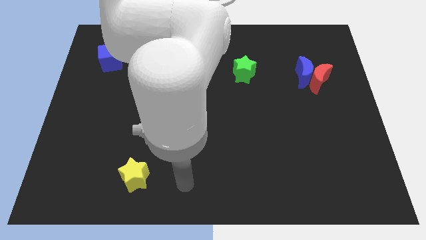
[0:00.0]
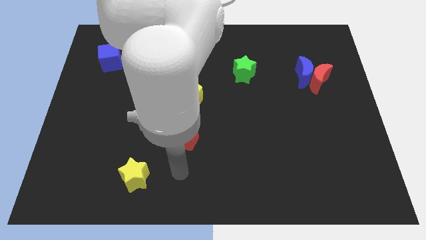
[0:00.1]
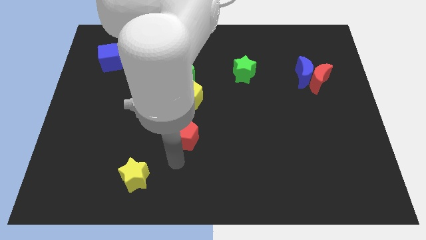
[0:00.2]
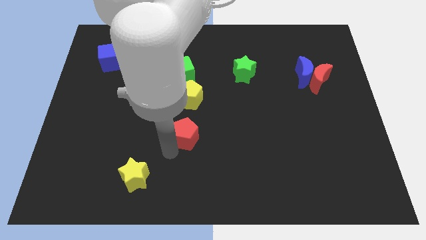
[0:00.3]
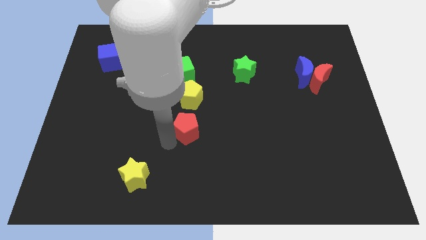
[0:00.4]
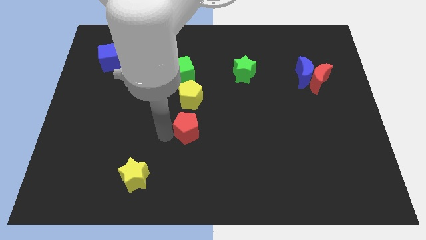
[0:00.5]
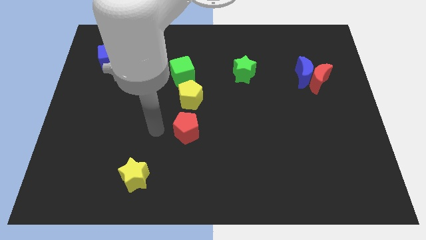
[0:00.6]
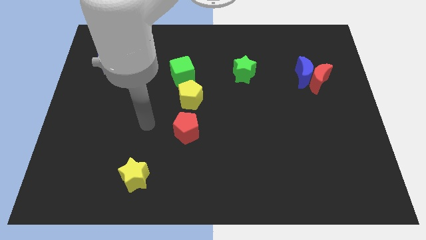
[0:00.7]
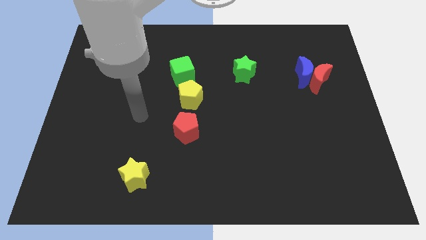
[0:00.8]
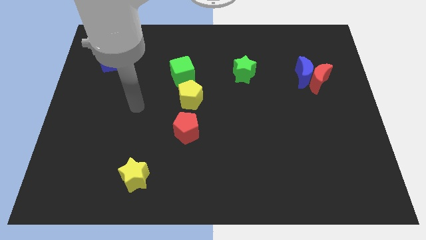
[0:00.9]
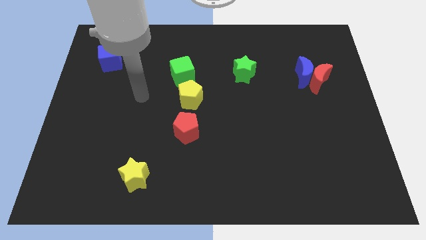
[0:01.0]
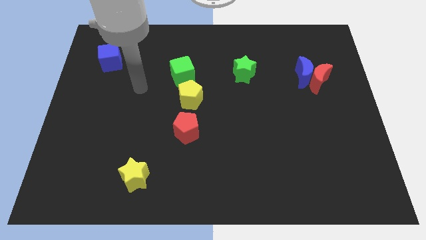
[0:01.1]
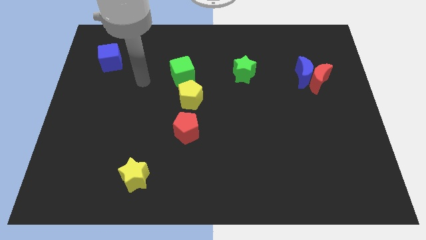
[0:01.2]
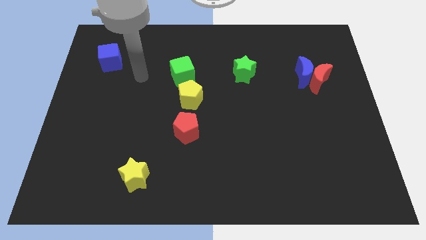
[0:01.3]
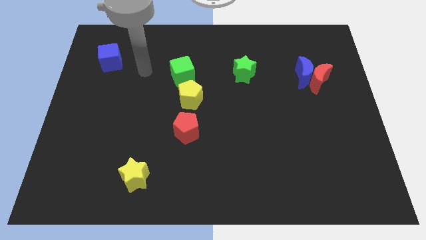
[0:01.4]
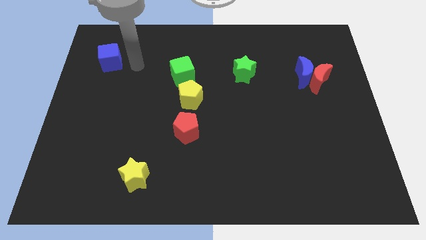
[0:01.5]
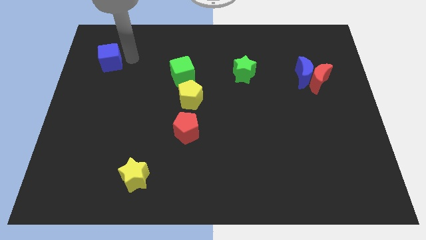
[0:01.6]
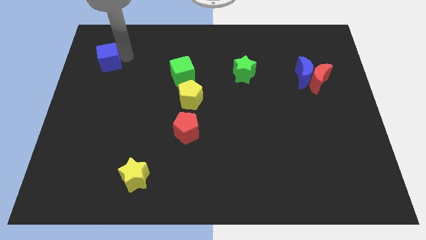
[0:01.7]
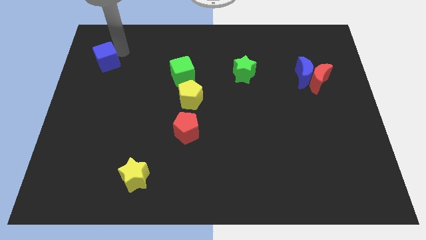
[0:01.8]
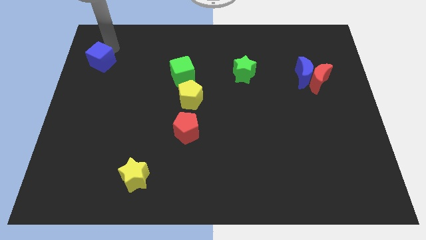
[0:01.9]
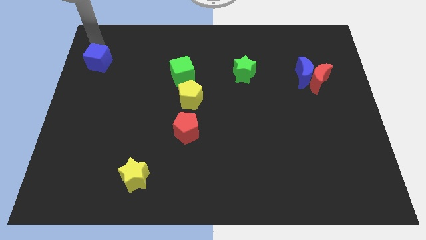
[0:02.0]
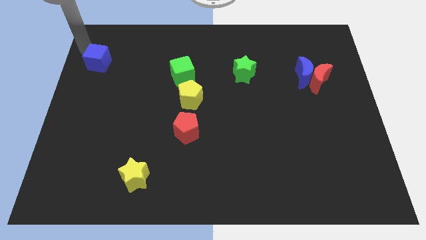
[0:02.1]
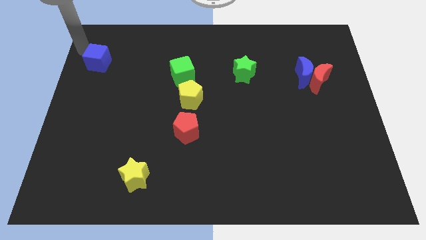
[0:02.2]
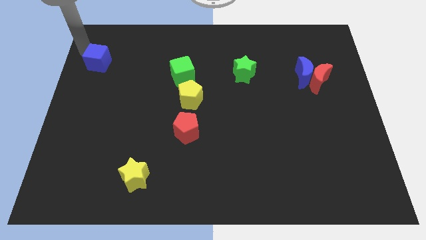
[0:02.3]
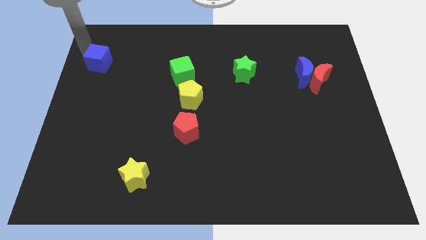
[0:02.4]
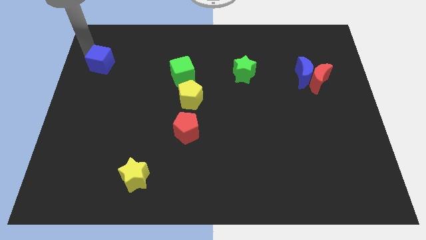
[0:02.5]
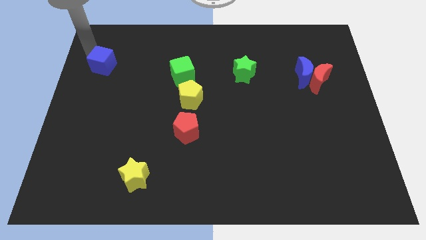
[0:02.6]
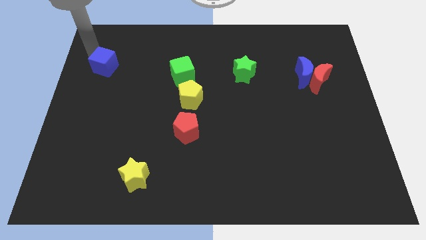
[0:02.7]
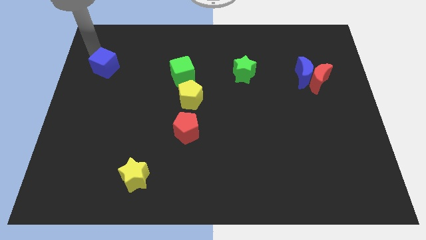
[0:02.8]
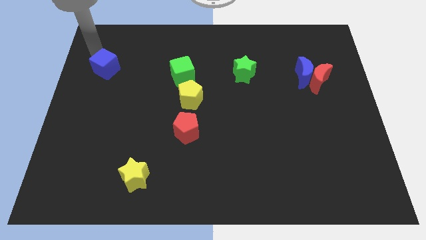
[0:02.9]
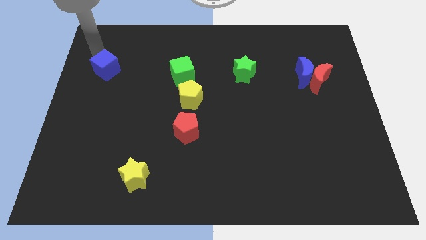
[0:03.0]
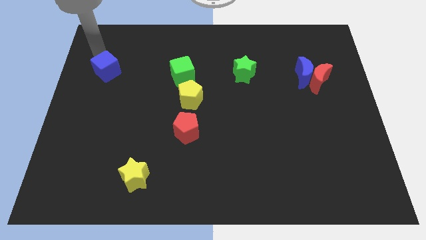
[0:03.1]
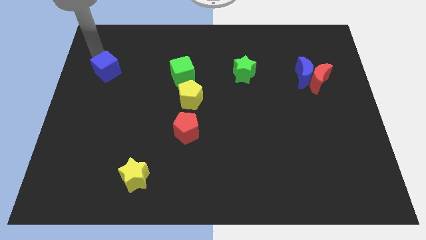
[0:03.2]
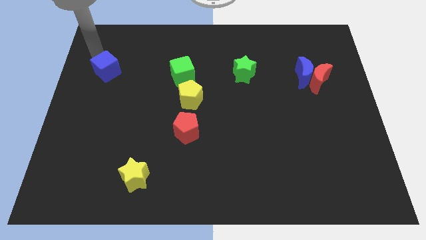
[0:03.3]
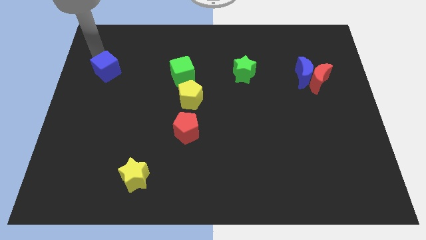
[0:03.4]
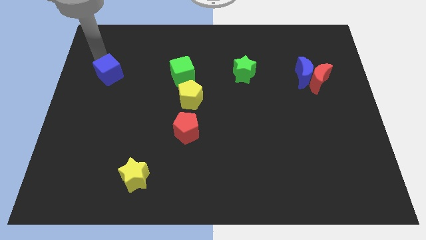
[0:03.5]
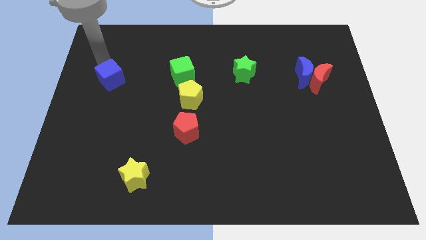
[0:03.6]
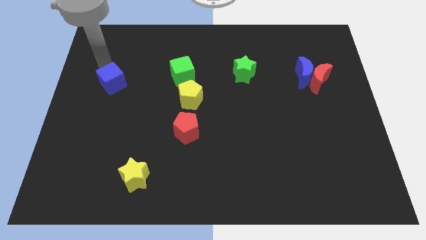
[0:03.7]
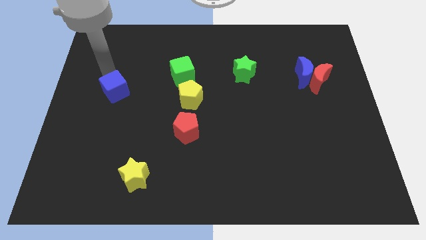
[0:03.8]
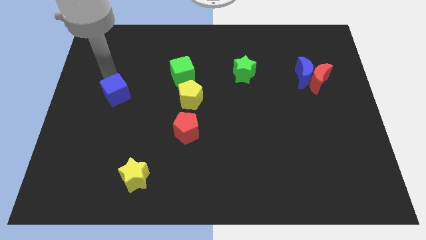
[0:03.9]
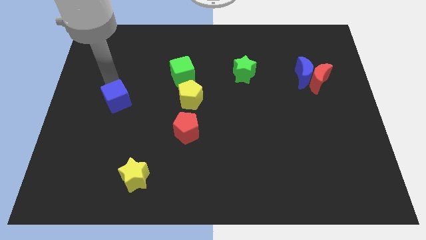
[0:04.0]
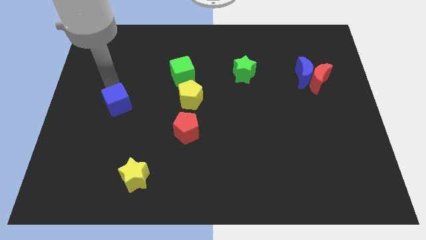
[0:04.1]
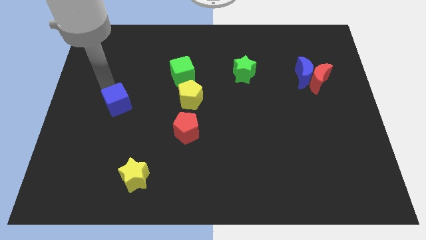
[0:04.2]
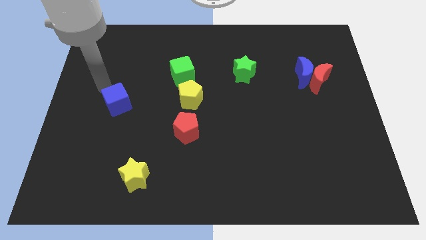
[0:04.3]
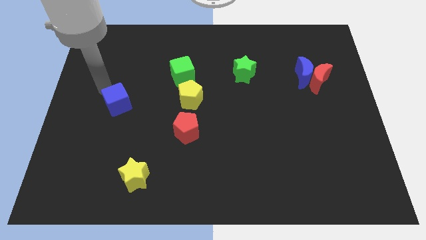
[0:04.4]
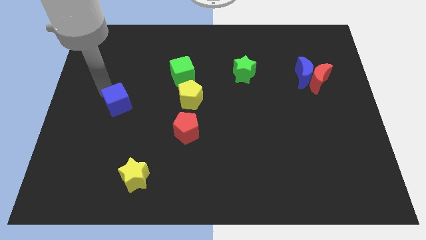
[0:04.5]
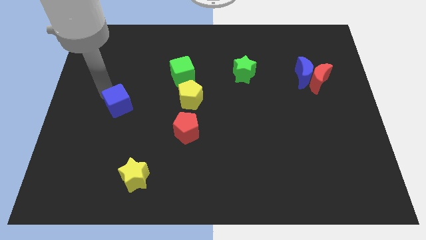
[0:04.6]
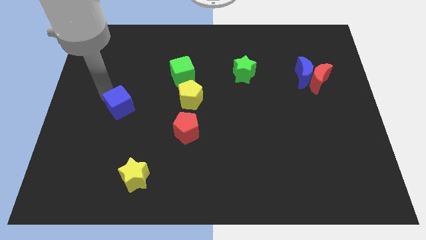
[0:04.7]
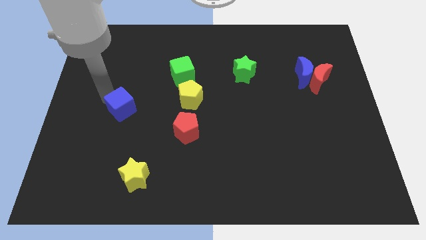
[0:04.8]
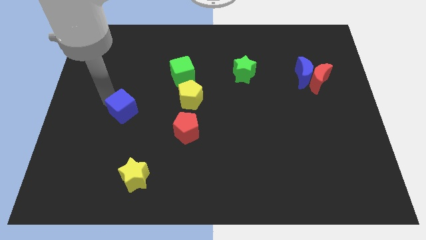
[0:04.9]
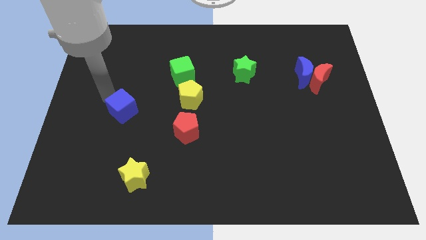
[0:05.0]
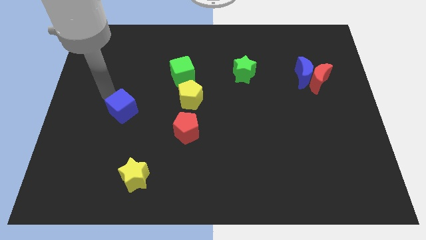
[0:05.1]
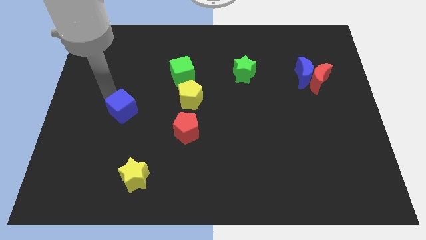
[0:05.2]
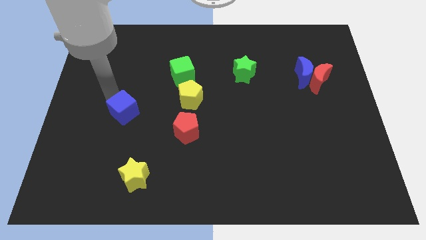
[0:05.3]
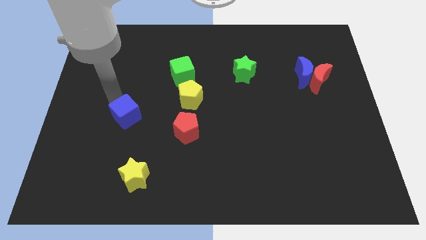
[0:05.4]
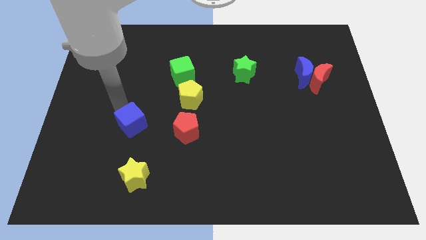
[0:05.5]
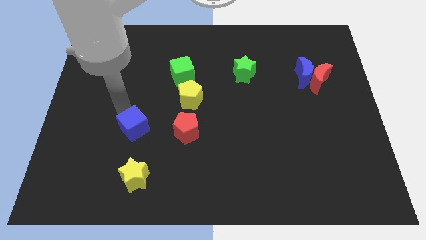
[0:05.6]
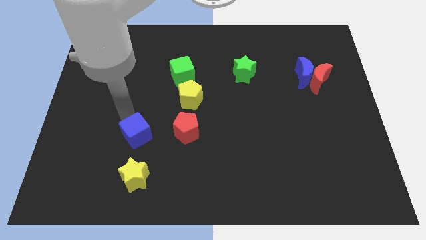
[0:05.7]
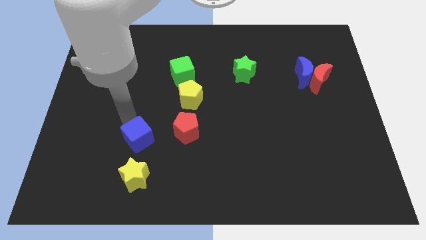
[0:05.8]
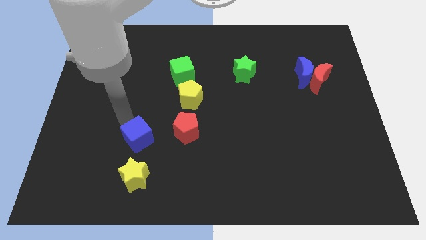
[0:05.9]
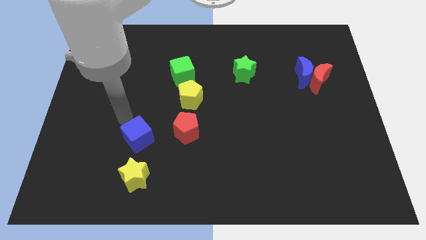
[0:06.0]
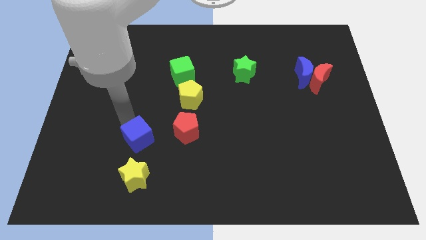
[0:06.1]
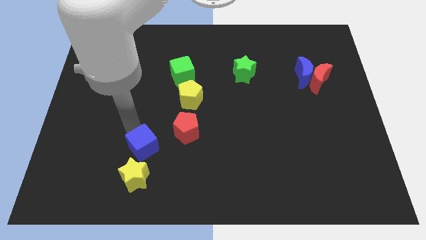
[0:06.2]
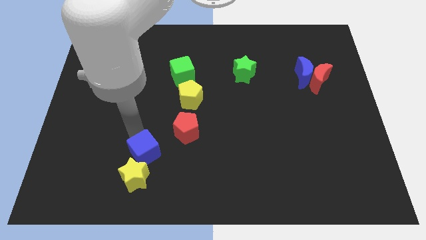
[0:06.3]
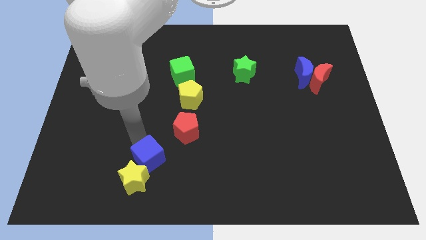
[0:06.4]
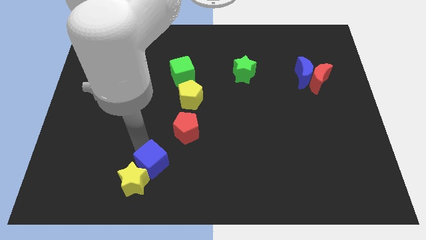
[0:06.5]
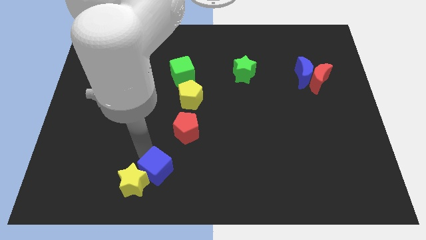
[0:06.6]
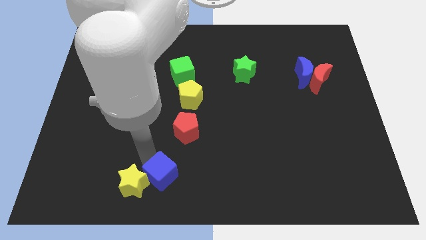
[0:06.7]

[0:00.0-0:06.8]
push the blue cube to the bottom
